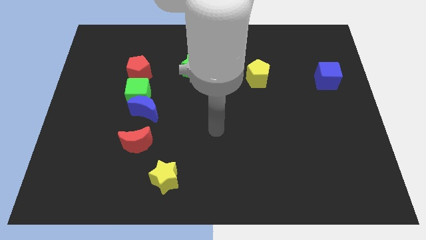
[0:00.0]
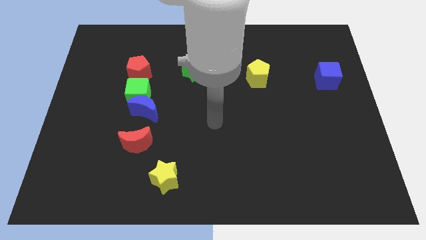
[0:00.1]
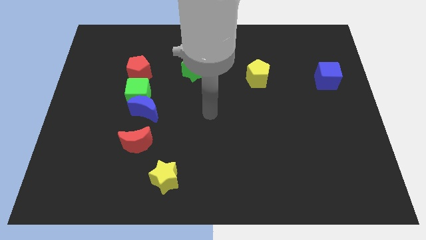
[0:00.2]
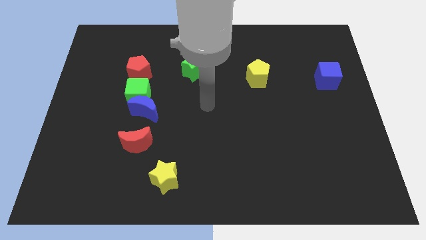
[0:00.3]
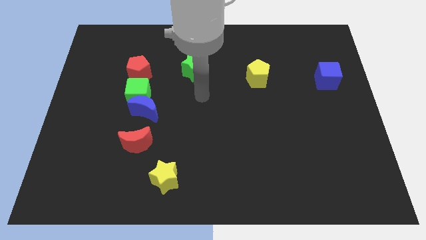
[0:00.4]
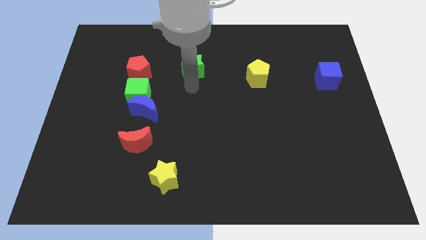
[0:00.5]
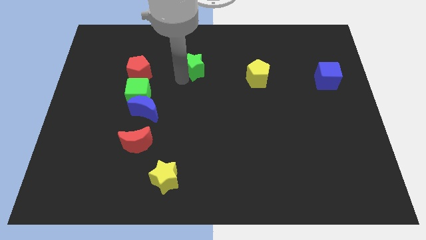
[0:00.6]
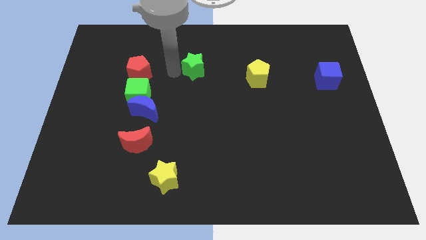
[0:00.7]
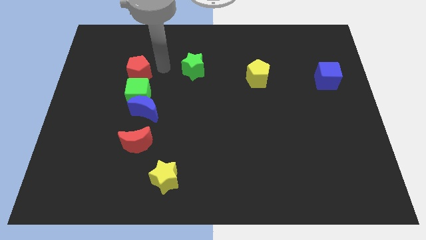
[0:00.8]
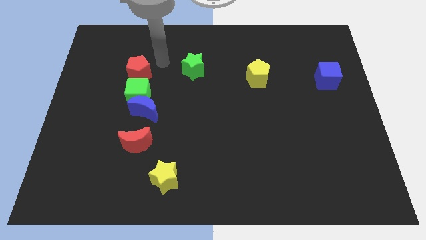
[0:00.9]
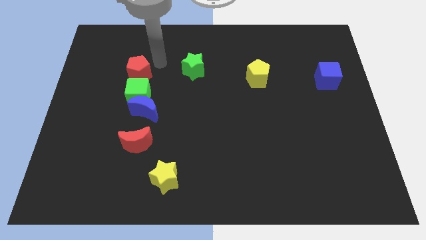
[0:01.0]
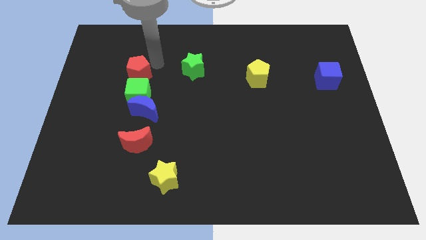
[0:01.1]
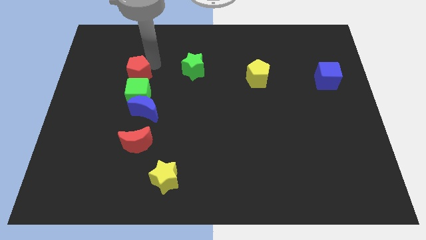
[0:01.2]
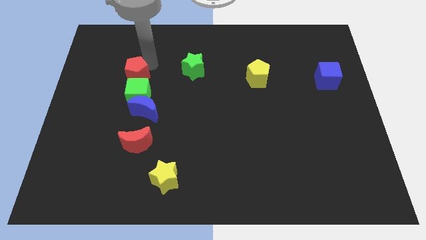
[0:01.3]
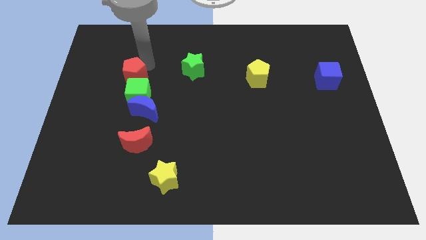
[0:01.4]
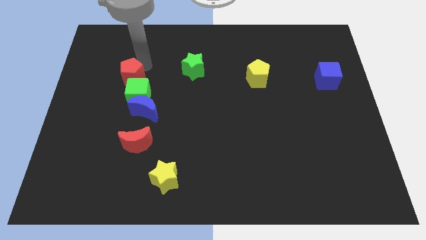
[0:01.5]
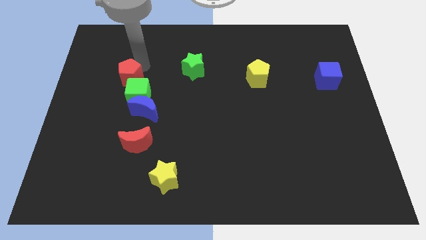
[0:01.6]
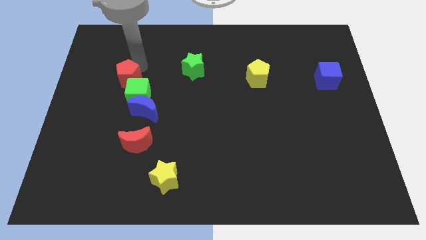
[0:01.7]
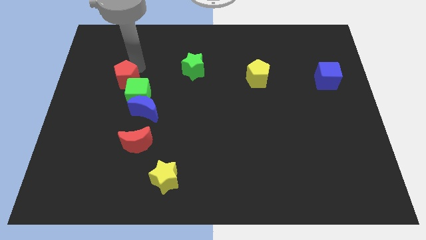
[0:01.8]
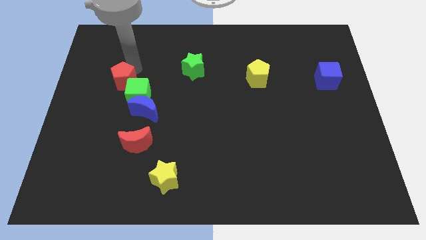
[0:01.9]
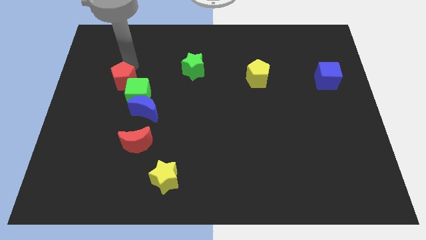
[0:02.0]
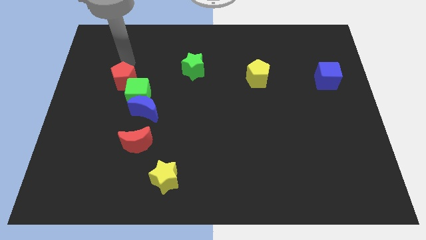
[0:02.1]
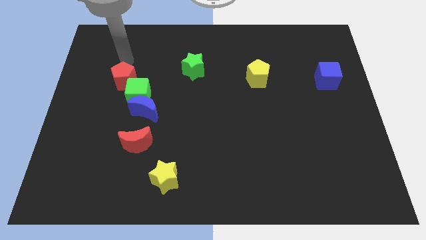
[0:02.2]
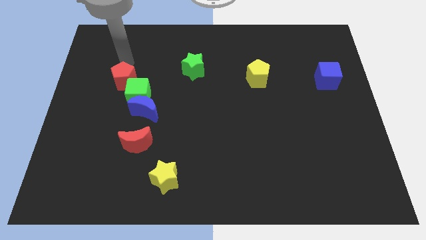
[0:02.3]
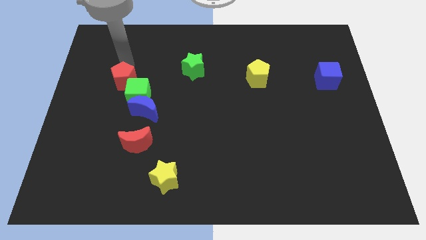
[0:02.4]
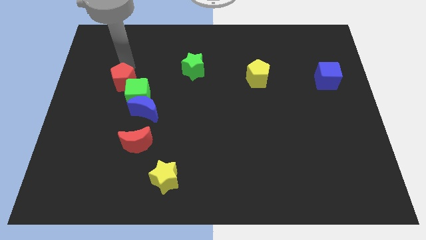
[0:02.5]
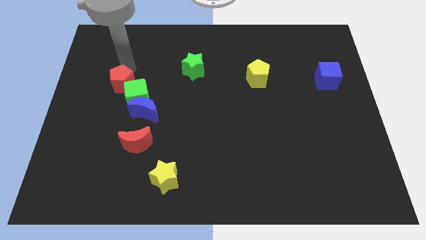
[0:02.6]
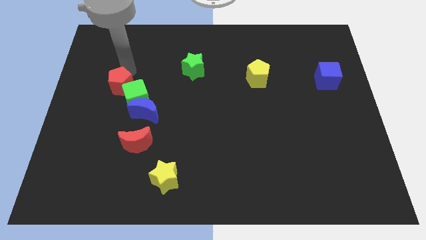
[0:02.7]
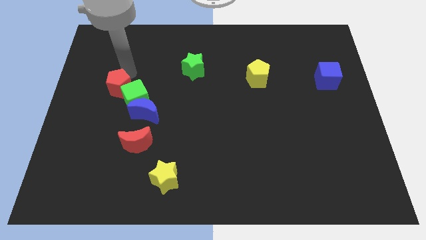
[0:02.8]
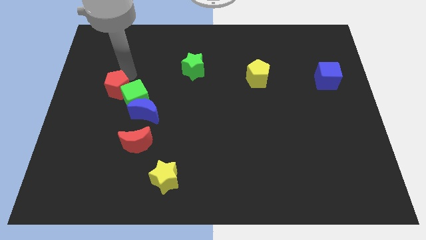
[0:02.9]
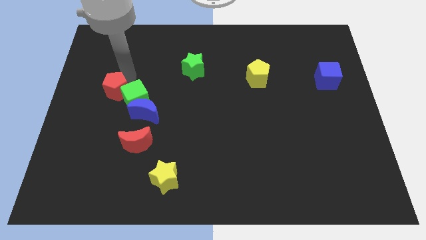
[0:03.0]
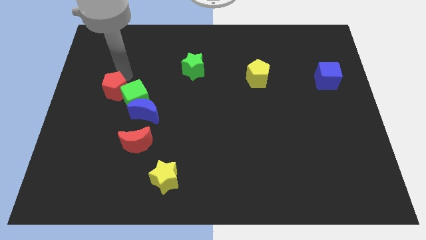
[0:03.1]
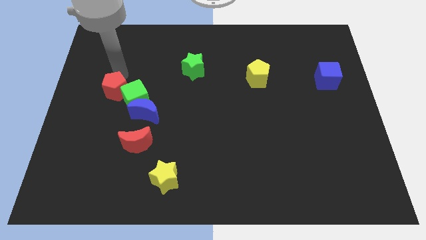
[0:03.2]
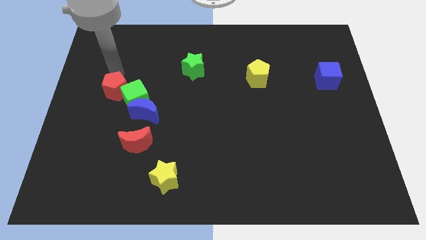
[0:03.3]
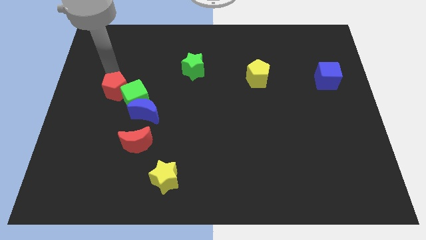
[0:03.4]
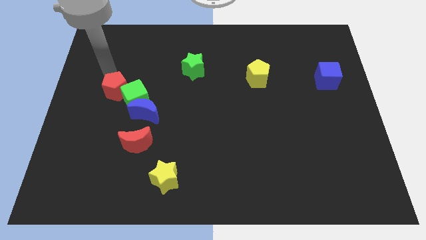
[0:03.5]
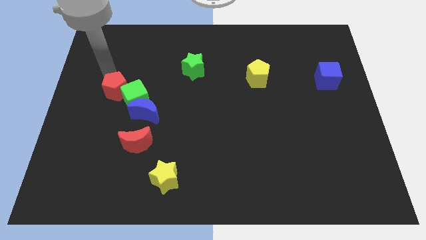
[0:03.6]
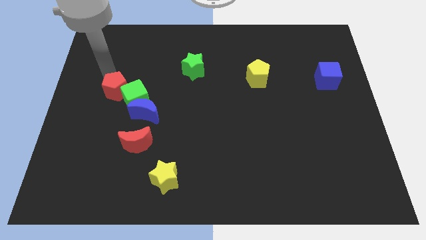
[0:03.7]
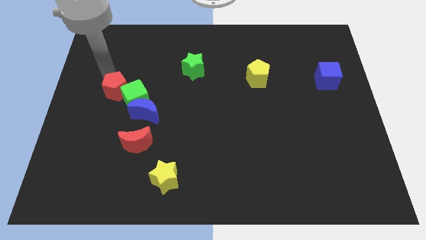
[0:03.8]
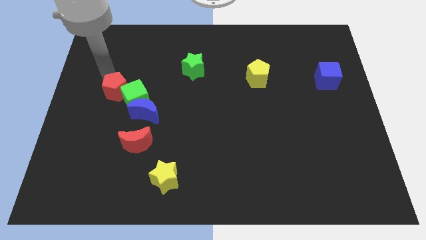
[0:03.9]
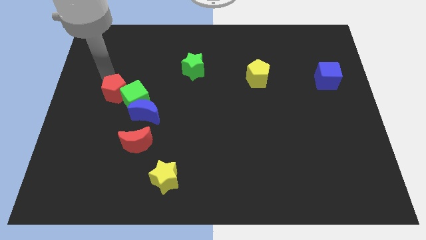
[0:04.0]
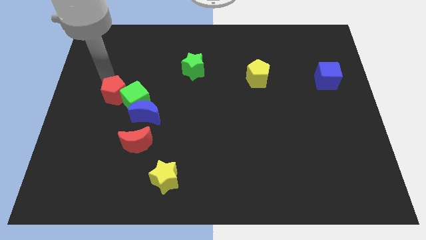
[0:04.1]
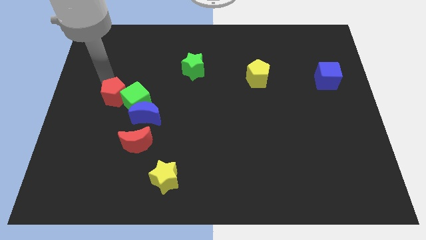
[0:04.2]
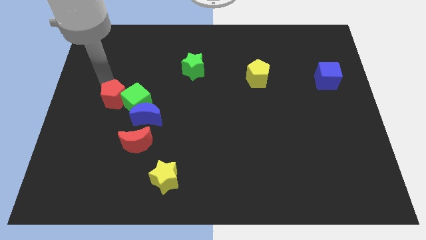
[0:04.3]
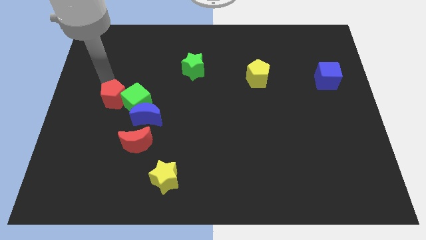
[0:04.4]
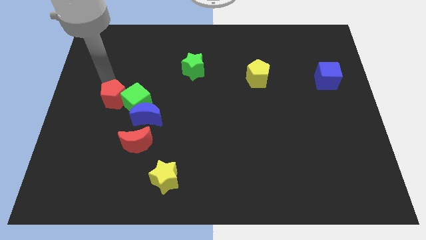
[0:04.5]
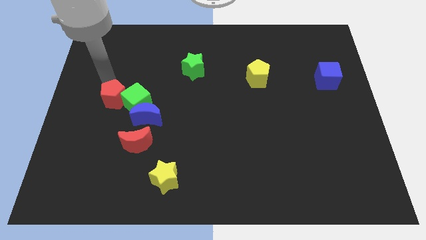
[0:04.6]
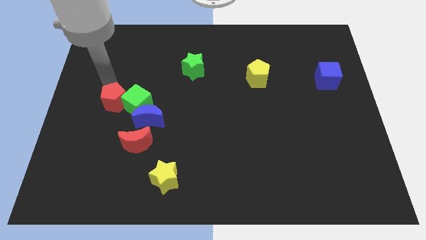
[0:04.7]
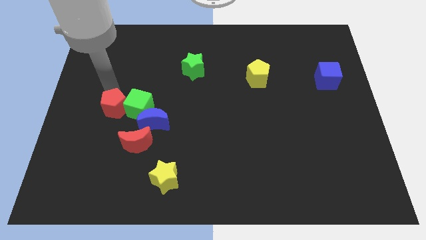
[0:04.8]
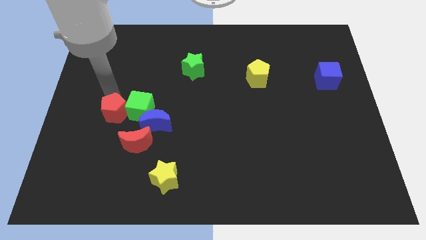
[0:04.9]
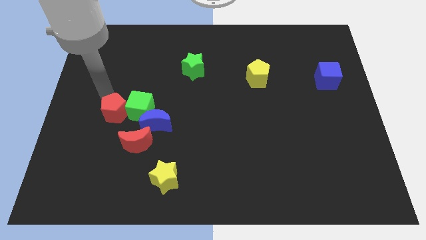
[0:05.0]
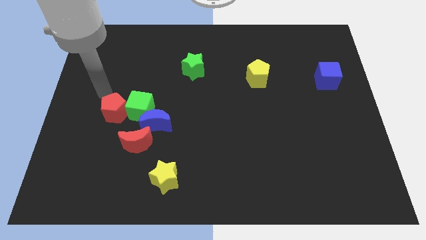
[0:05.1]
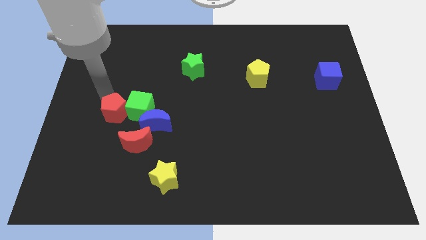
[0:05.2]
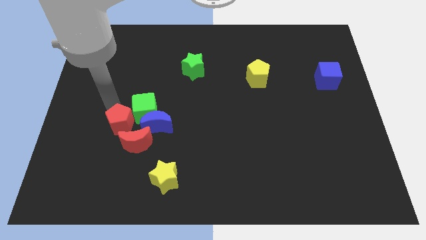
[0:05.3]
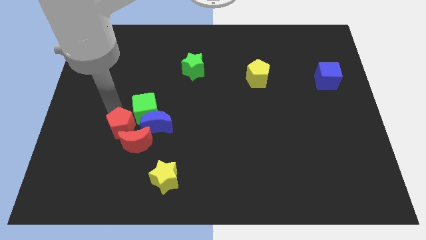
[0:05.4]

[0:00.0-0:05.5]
move the red pentagon towards the red moon

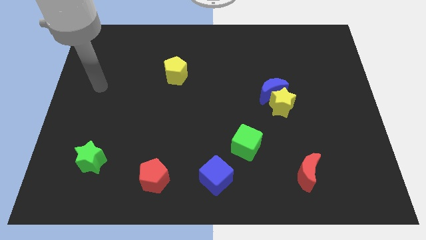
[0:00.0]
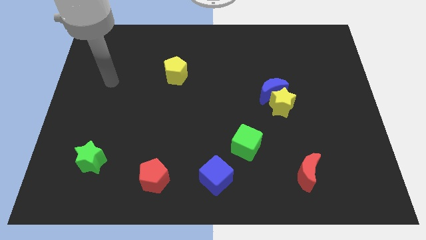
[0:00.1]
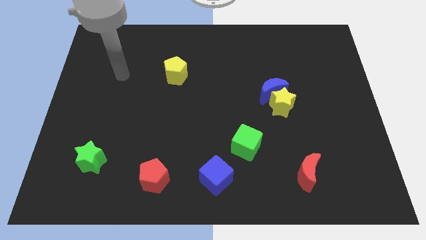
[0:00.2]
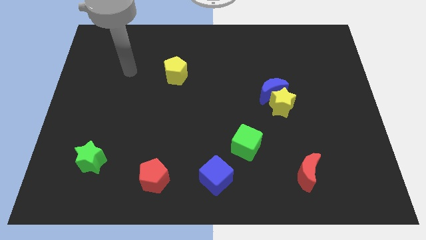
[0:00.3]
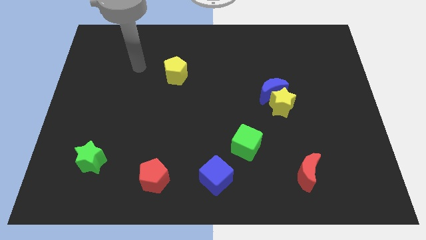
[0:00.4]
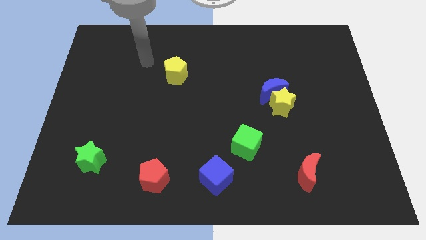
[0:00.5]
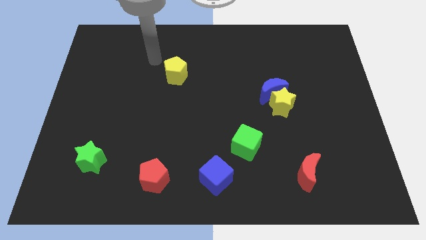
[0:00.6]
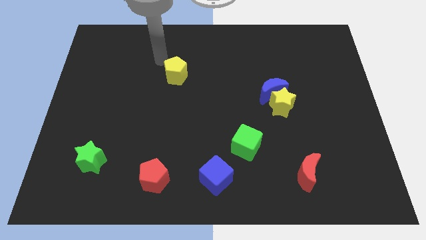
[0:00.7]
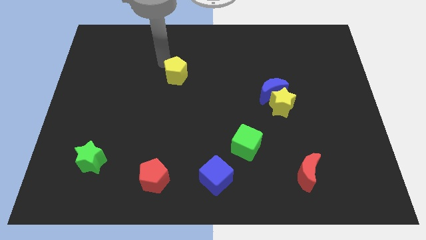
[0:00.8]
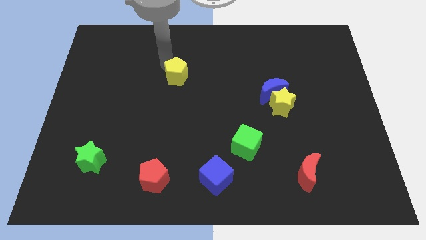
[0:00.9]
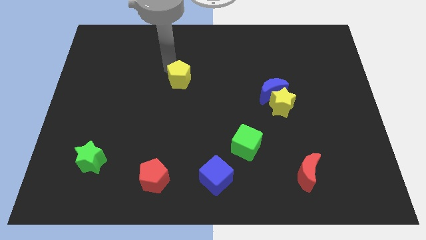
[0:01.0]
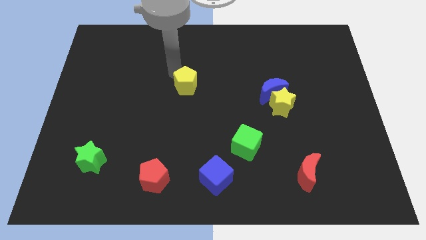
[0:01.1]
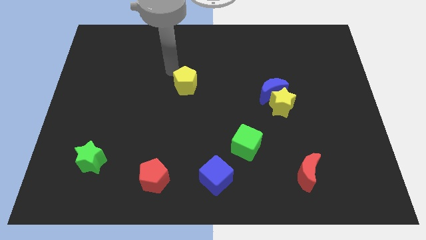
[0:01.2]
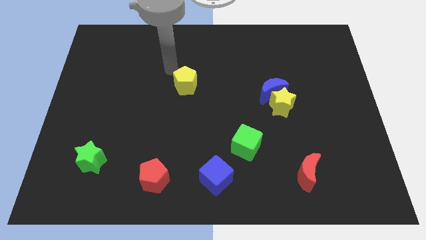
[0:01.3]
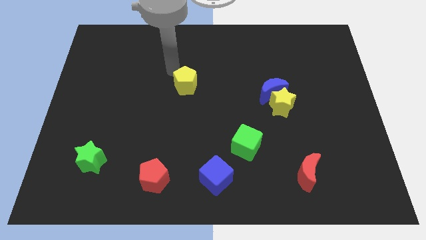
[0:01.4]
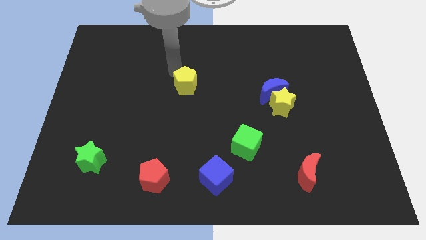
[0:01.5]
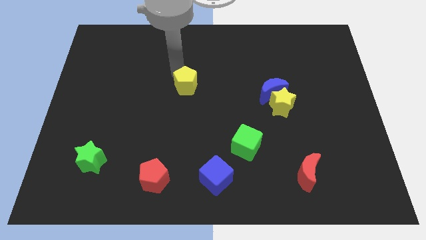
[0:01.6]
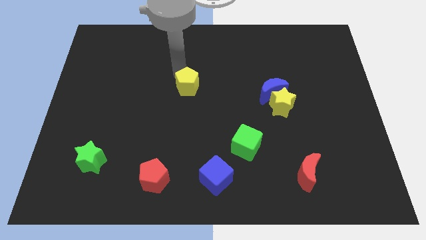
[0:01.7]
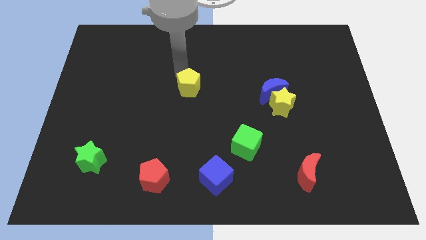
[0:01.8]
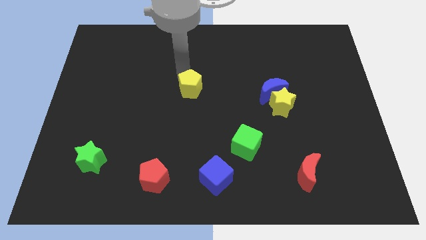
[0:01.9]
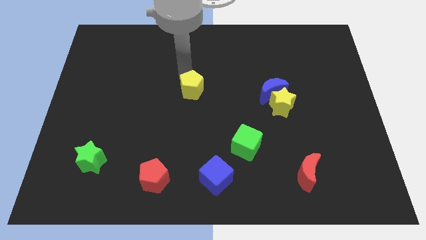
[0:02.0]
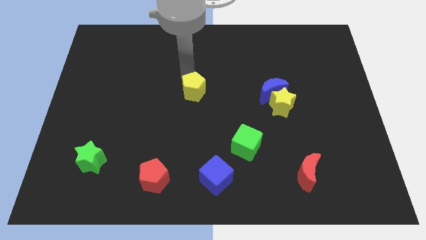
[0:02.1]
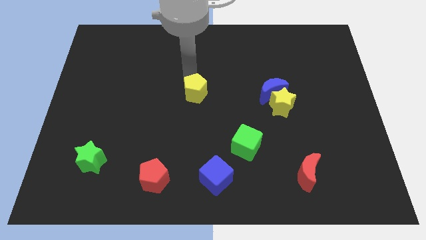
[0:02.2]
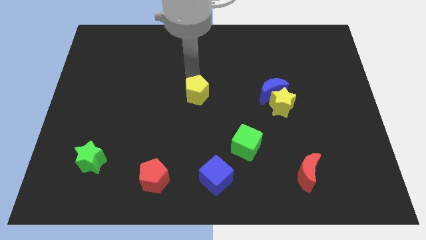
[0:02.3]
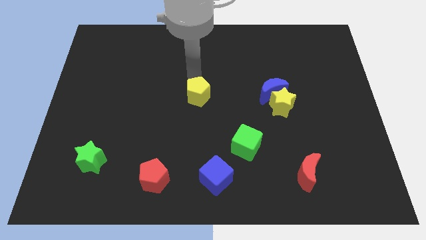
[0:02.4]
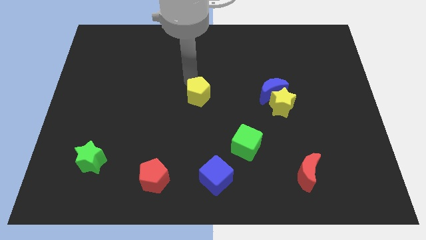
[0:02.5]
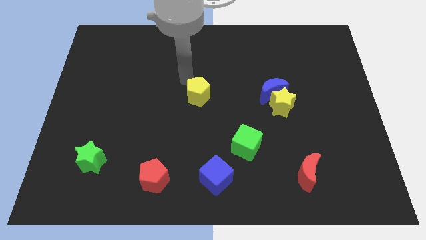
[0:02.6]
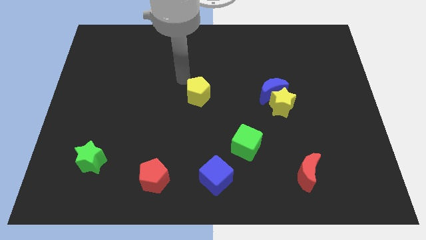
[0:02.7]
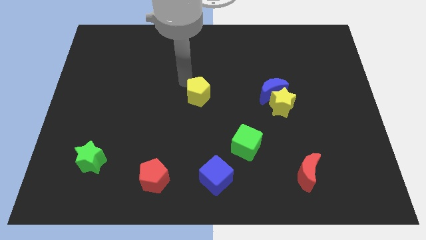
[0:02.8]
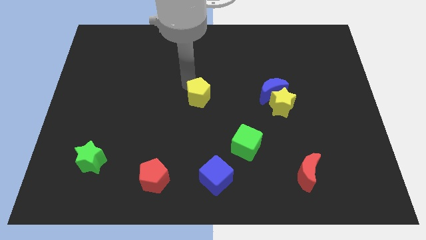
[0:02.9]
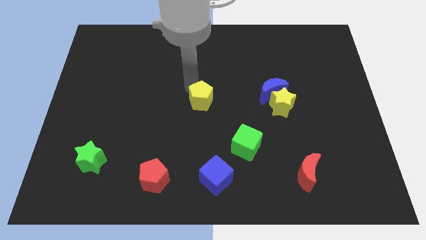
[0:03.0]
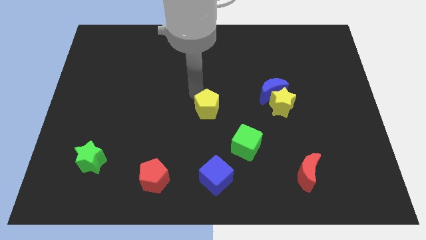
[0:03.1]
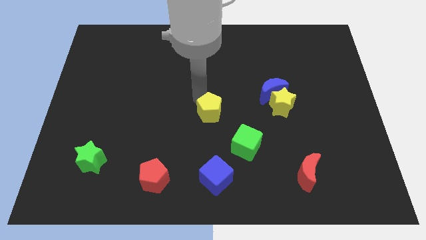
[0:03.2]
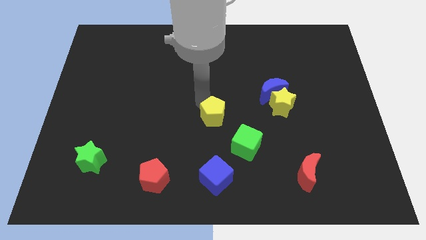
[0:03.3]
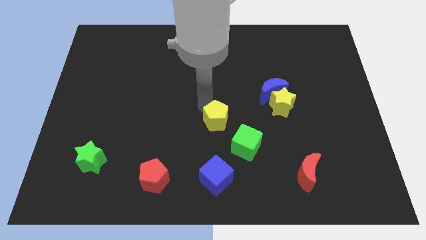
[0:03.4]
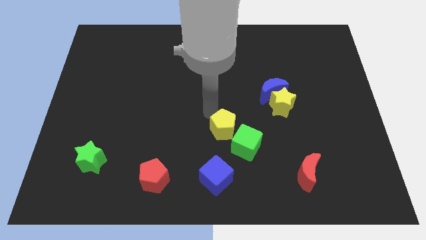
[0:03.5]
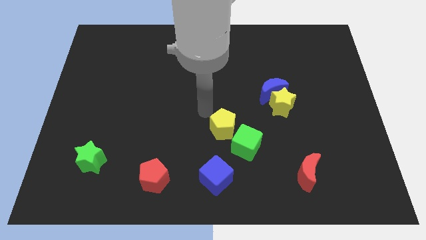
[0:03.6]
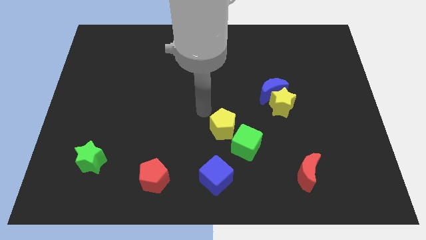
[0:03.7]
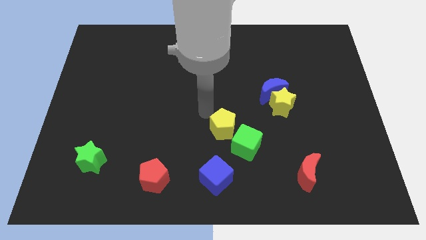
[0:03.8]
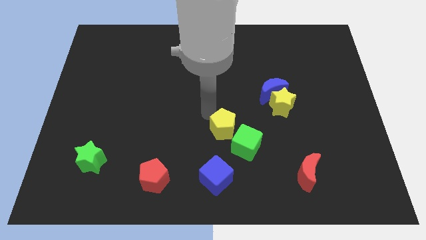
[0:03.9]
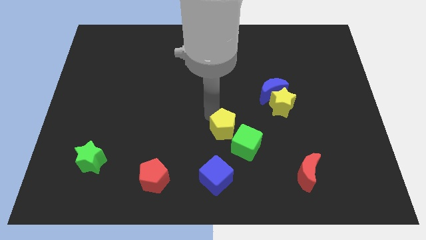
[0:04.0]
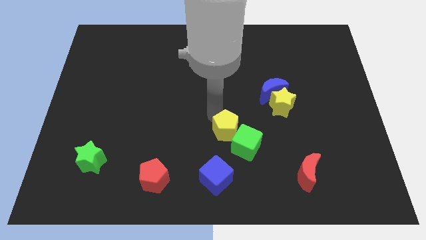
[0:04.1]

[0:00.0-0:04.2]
move the yellow pentagon to the green cube
